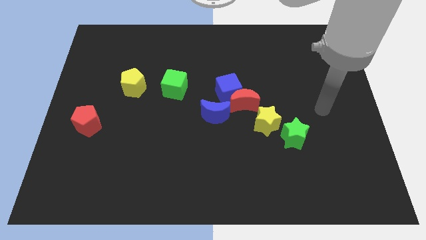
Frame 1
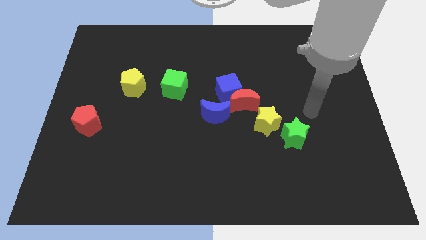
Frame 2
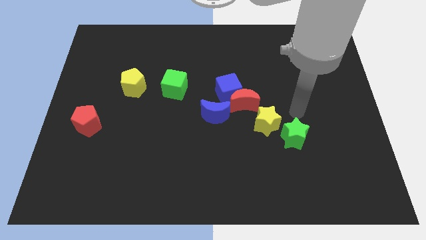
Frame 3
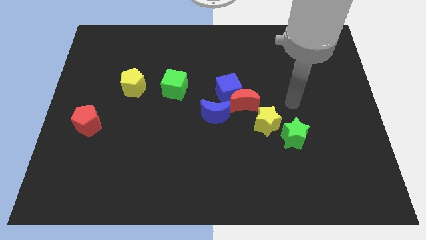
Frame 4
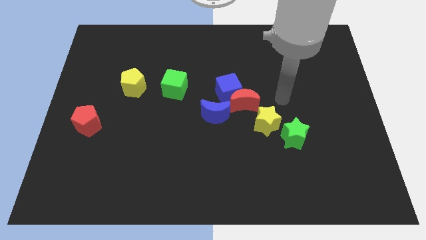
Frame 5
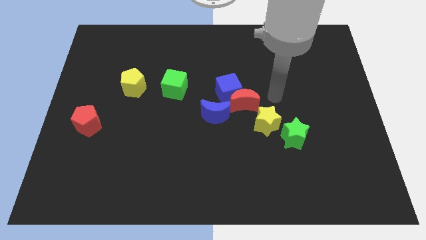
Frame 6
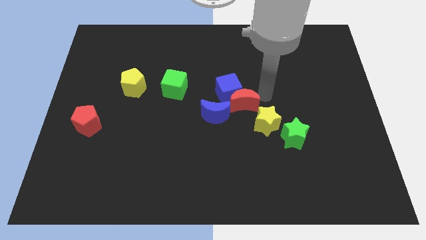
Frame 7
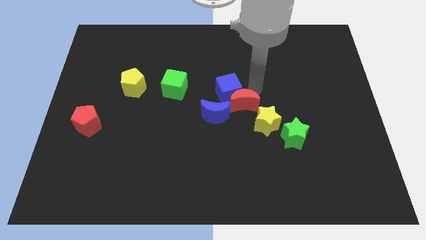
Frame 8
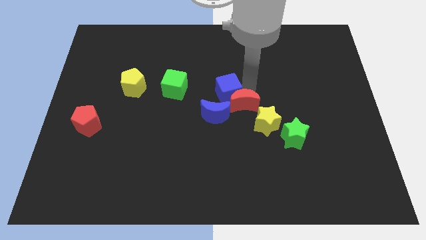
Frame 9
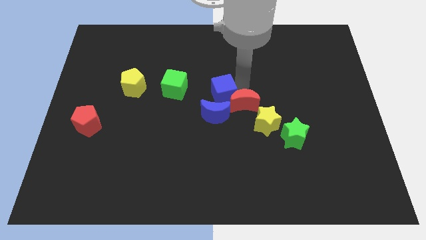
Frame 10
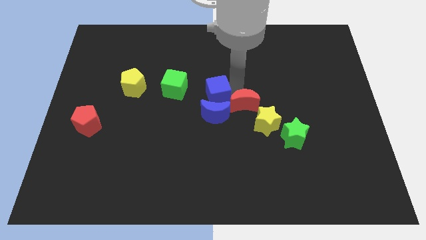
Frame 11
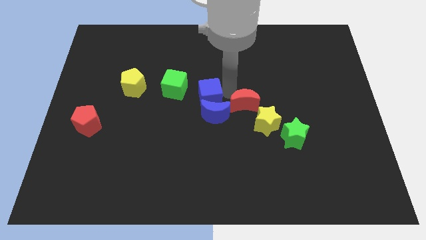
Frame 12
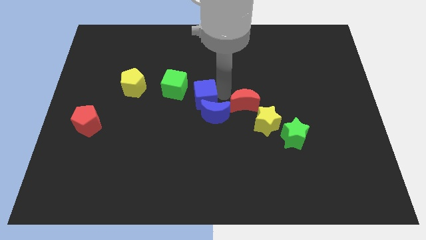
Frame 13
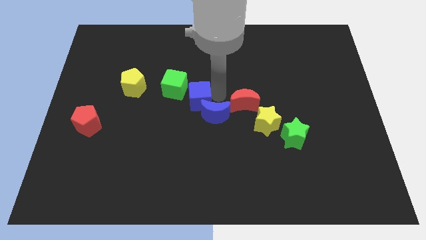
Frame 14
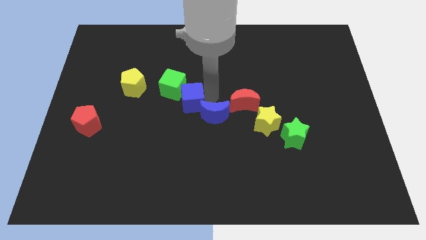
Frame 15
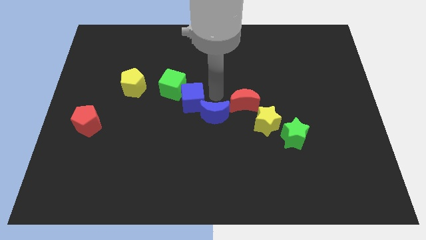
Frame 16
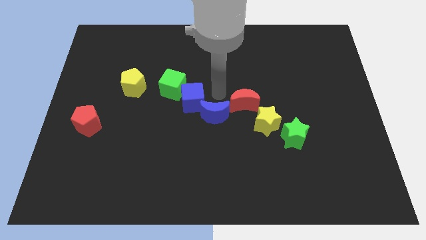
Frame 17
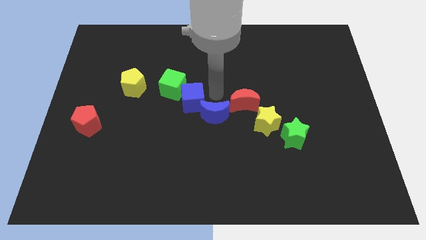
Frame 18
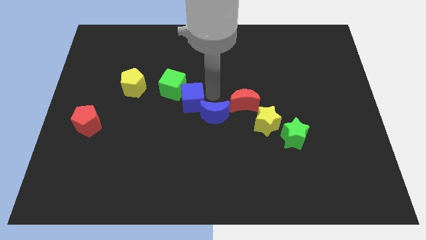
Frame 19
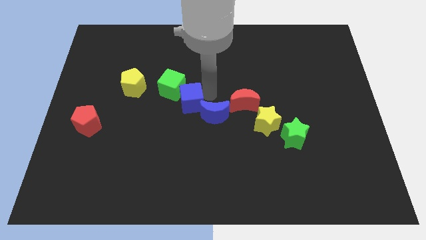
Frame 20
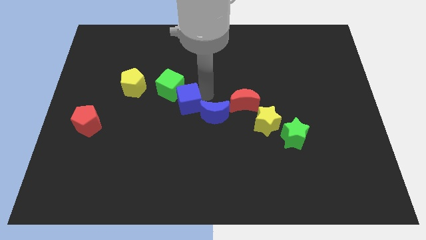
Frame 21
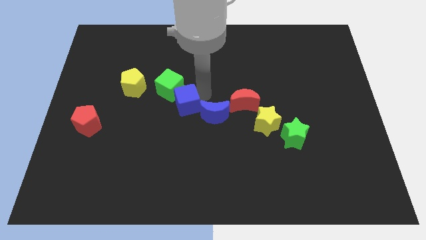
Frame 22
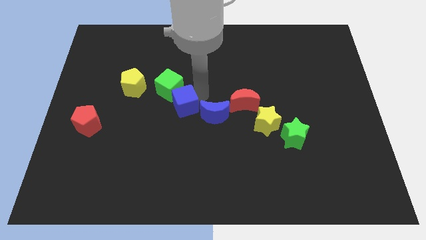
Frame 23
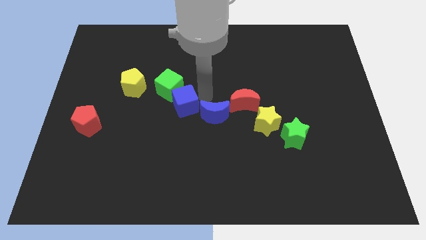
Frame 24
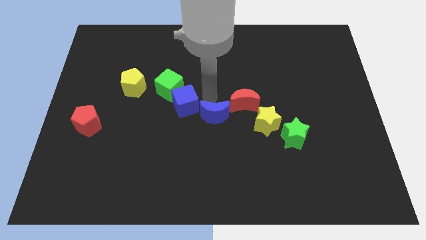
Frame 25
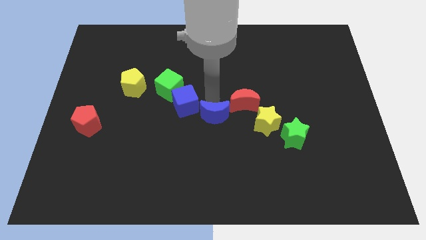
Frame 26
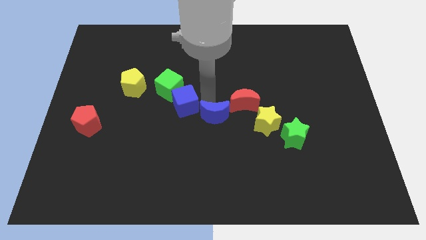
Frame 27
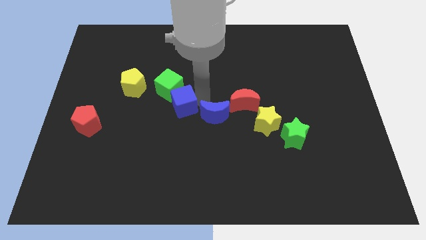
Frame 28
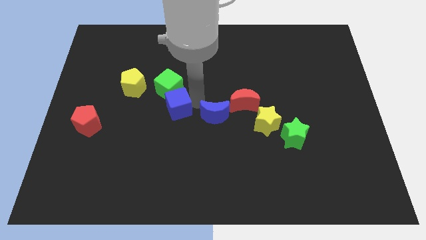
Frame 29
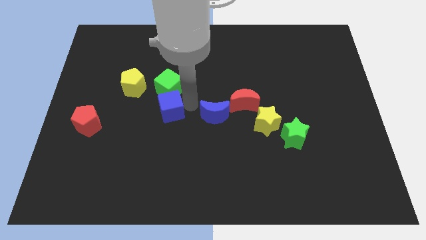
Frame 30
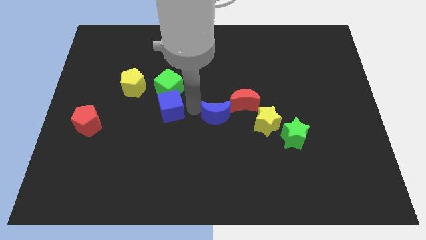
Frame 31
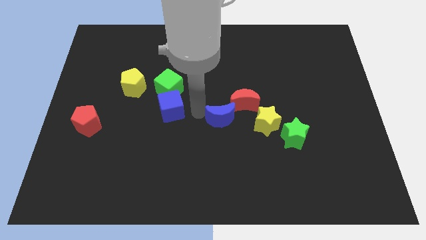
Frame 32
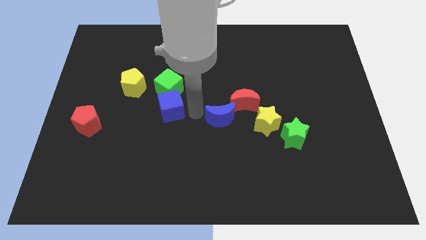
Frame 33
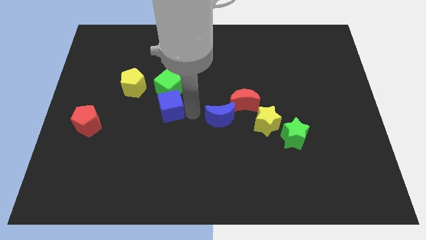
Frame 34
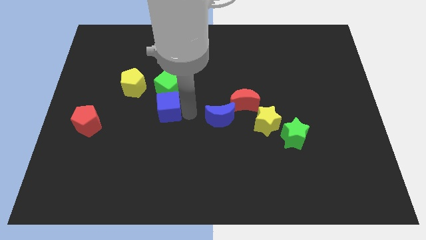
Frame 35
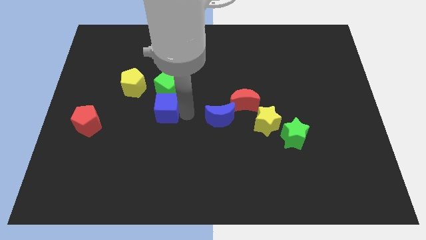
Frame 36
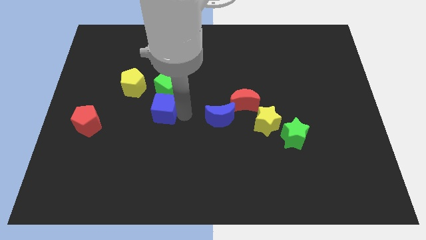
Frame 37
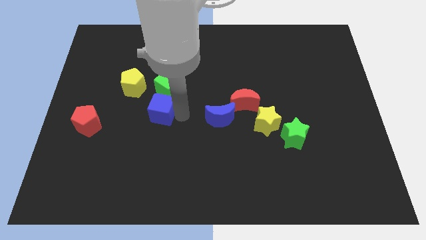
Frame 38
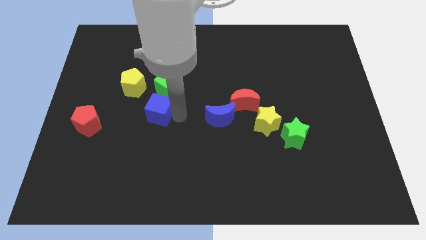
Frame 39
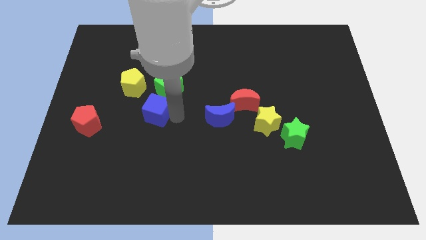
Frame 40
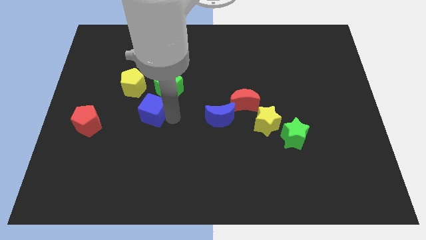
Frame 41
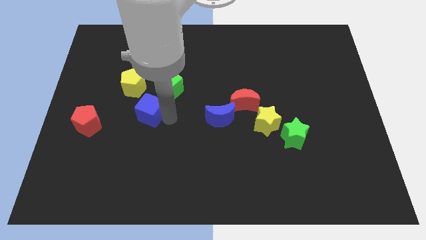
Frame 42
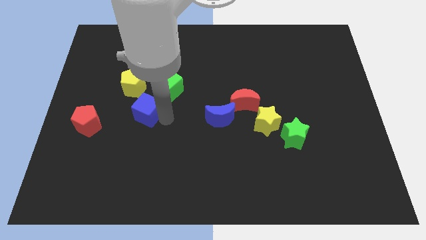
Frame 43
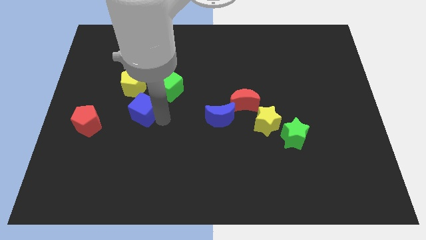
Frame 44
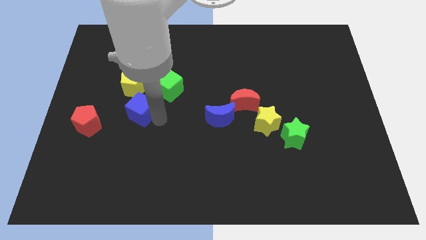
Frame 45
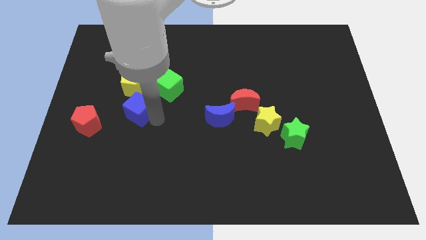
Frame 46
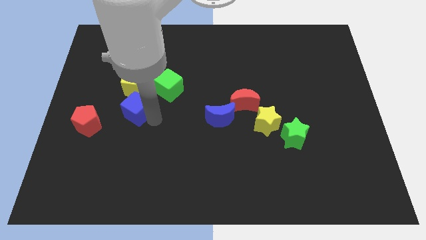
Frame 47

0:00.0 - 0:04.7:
push the blue cube to the left

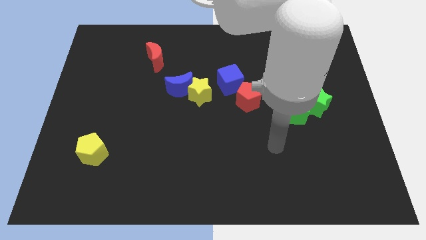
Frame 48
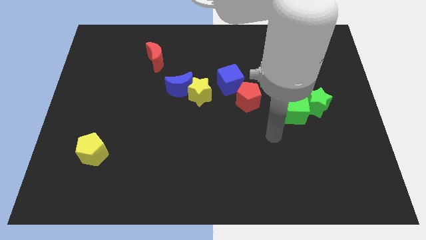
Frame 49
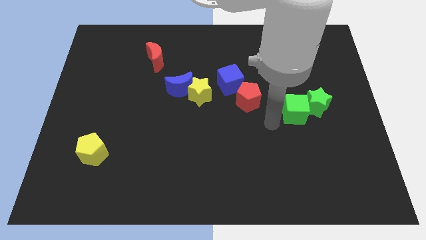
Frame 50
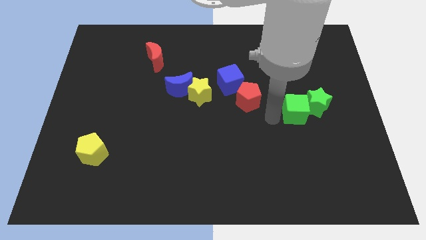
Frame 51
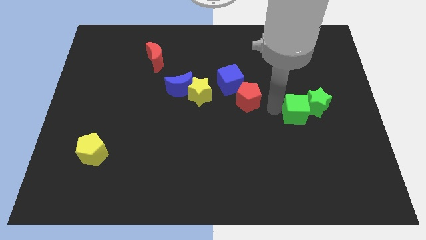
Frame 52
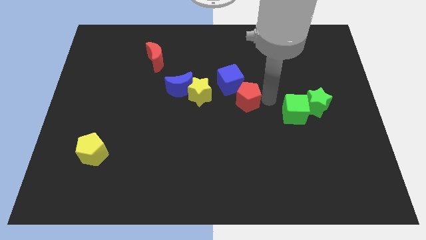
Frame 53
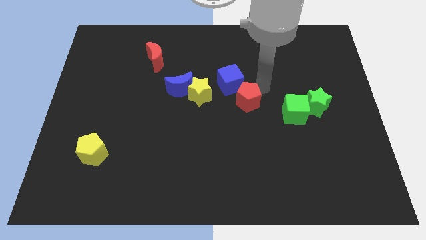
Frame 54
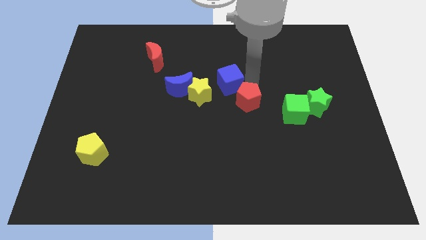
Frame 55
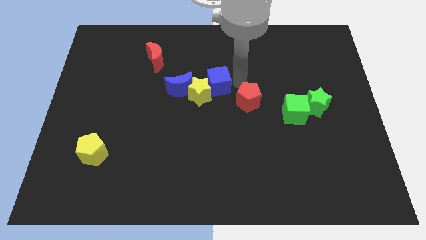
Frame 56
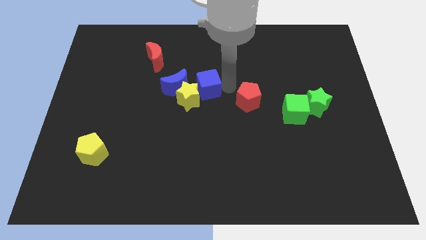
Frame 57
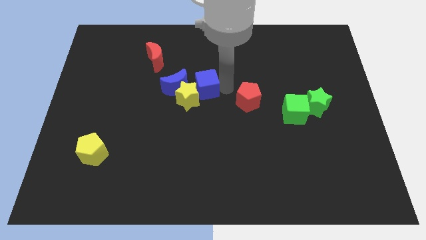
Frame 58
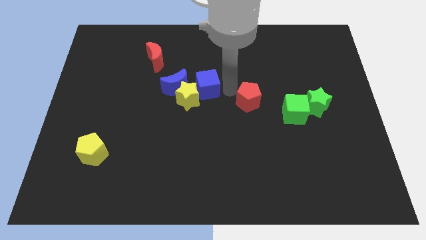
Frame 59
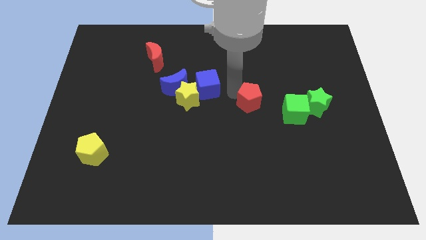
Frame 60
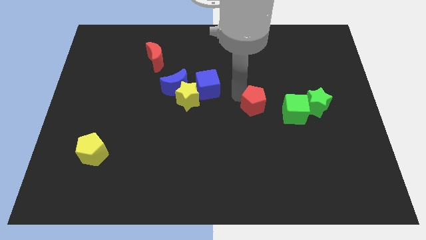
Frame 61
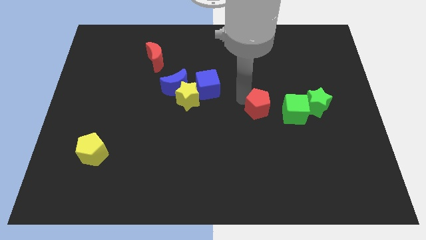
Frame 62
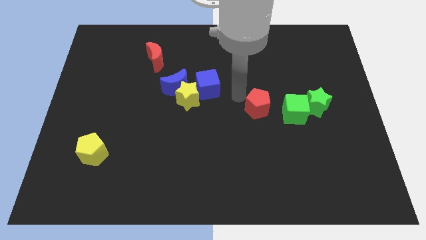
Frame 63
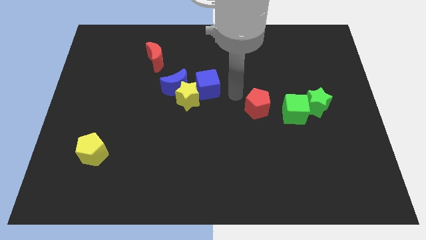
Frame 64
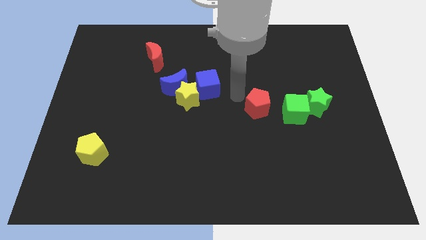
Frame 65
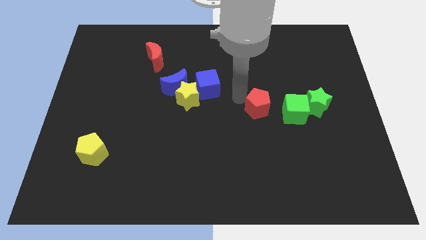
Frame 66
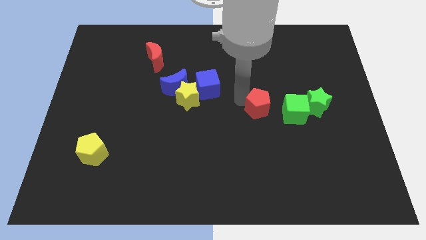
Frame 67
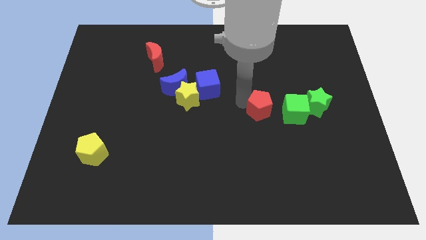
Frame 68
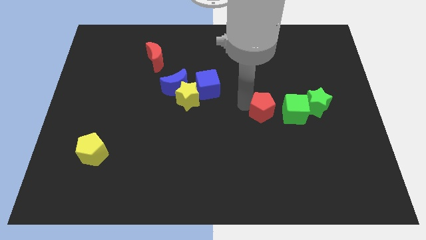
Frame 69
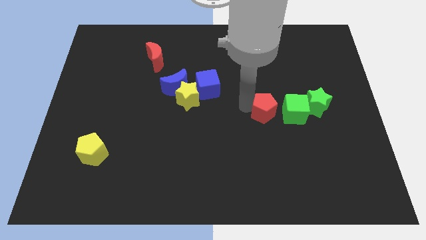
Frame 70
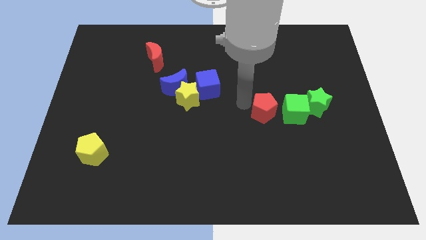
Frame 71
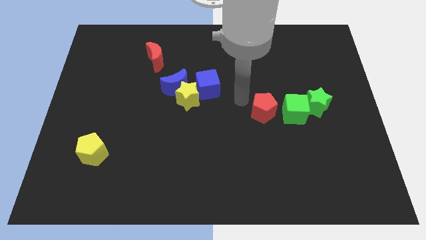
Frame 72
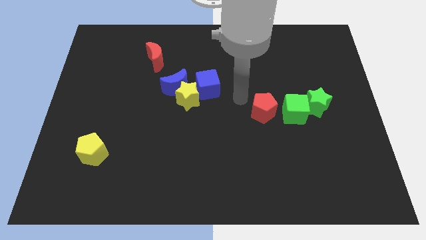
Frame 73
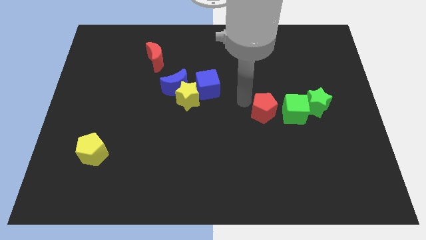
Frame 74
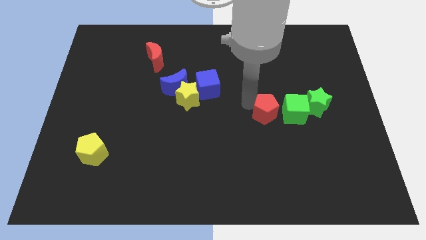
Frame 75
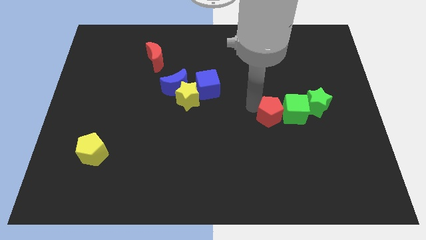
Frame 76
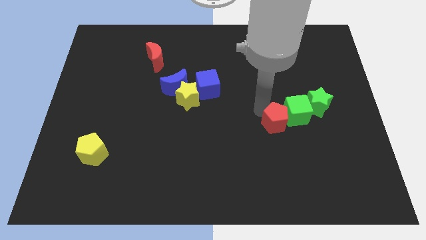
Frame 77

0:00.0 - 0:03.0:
slightly slide the red pentagon diagonally down and to the right
